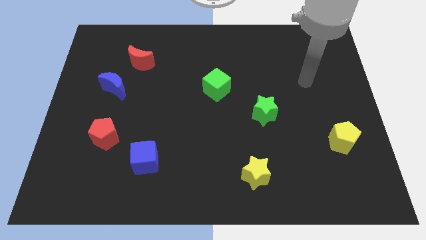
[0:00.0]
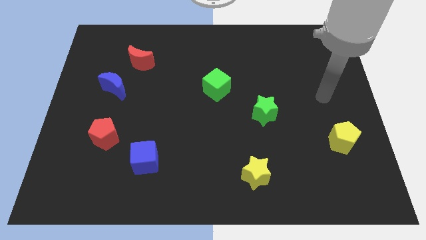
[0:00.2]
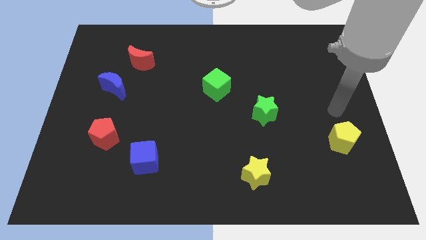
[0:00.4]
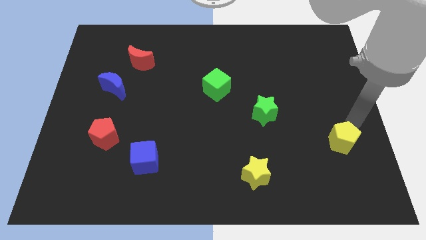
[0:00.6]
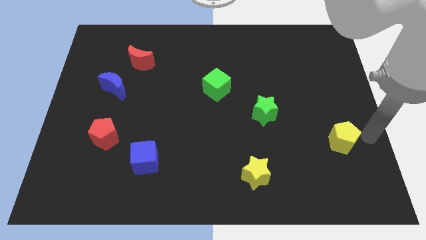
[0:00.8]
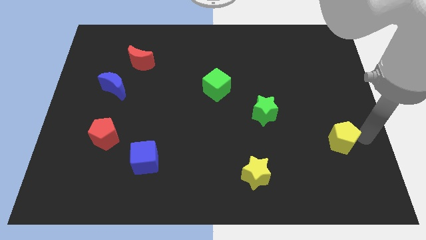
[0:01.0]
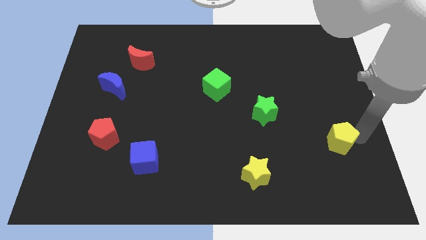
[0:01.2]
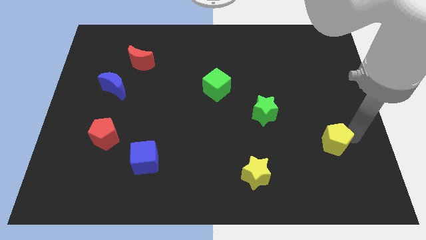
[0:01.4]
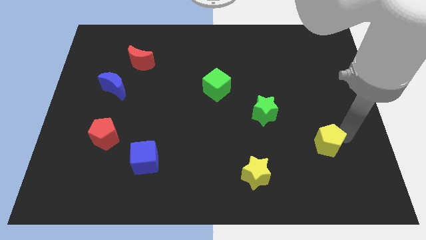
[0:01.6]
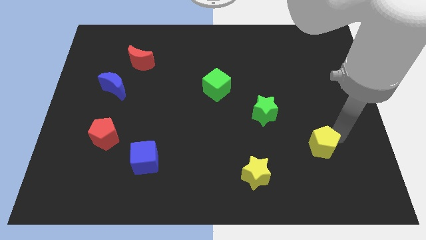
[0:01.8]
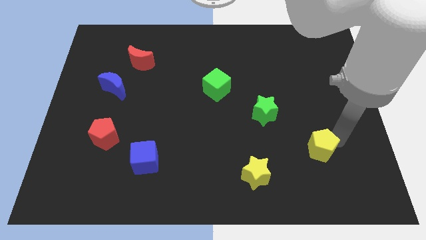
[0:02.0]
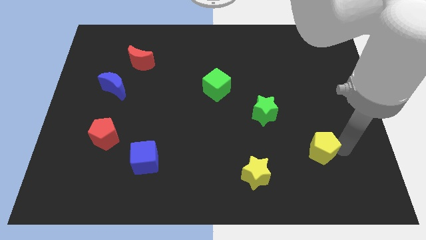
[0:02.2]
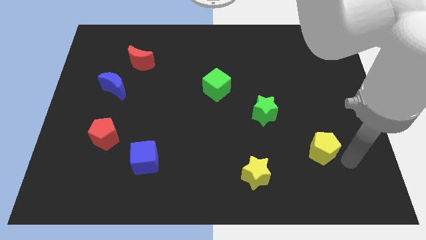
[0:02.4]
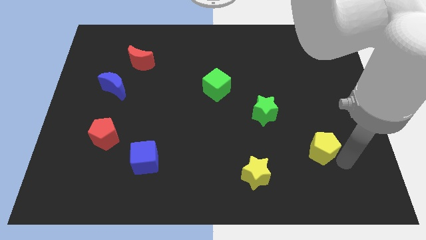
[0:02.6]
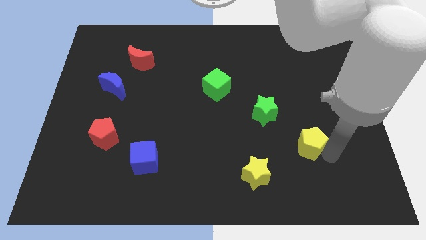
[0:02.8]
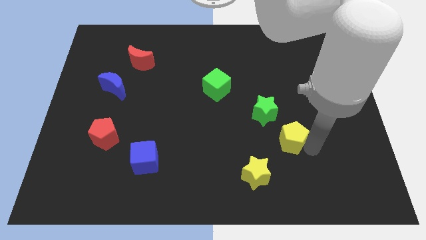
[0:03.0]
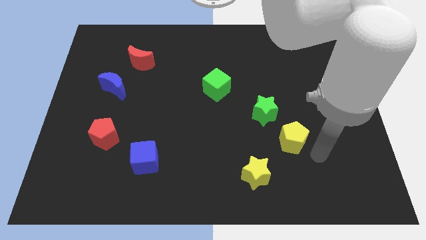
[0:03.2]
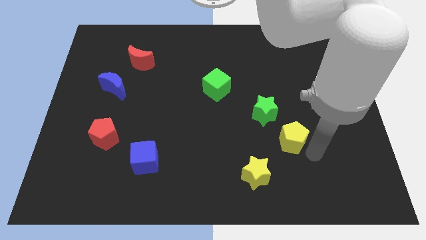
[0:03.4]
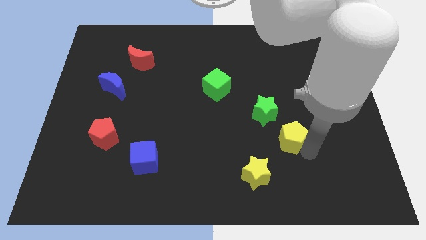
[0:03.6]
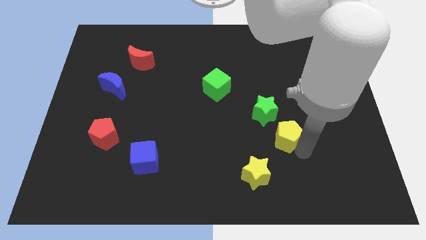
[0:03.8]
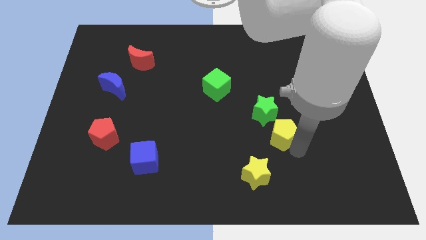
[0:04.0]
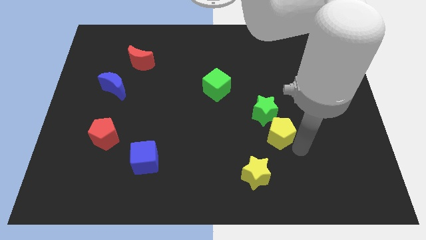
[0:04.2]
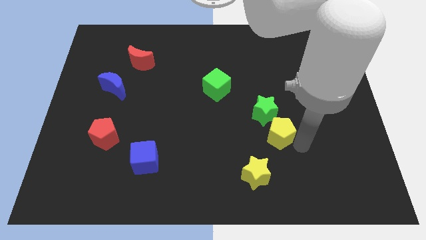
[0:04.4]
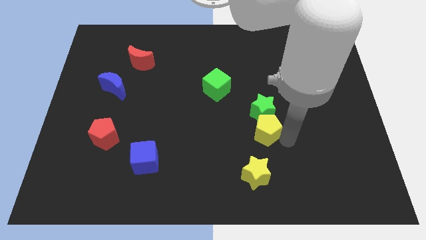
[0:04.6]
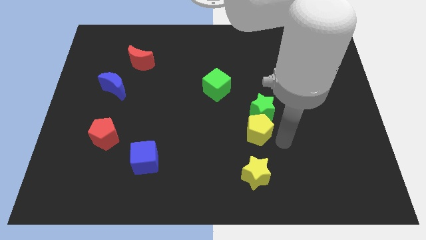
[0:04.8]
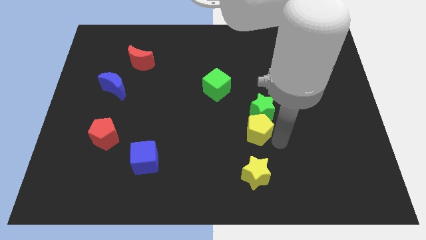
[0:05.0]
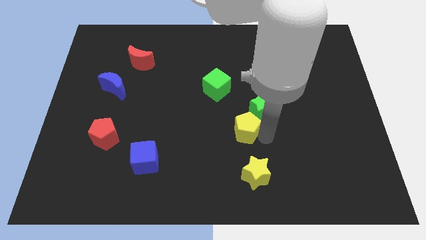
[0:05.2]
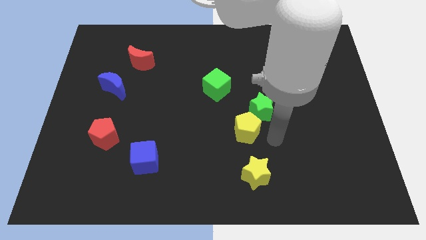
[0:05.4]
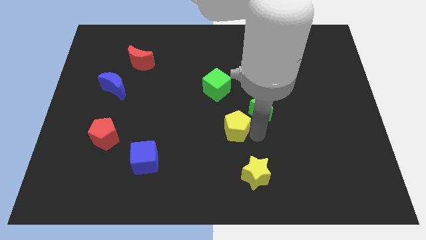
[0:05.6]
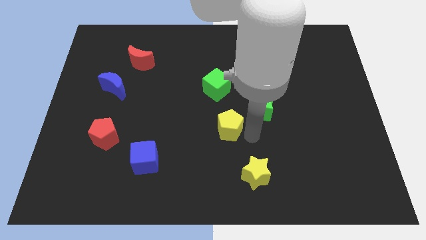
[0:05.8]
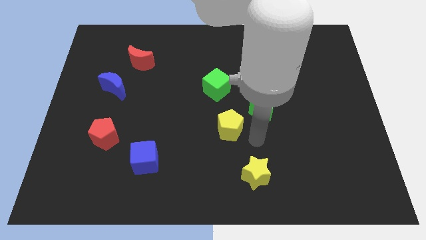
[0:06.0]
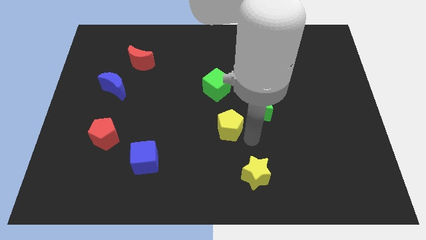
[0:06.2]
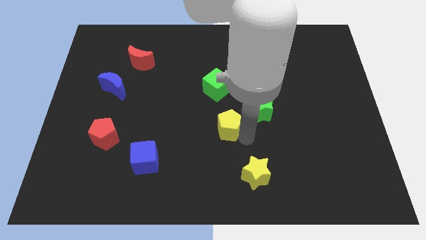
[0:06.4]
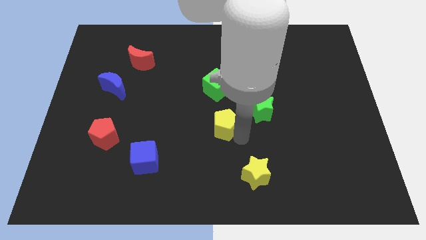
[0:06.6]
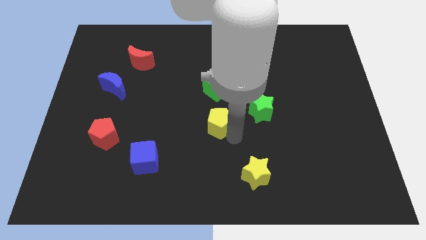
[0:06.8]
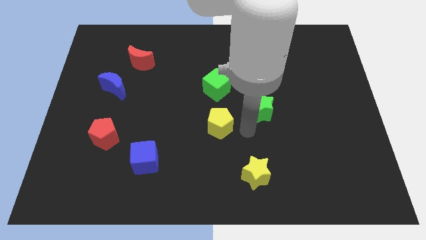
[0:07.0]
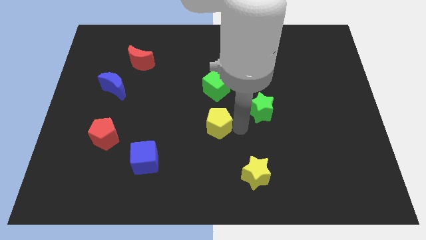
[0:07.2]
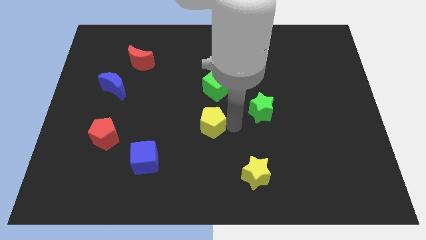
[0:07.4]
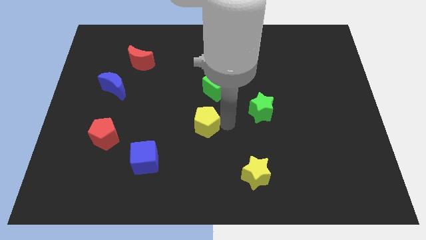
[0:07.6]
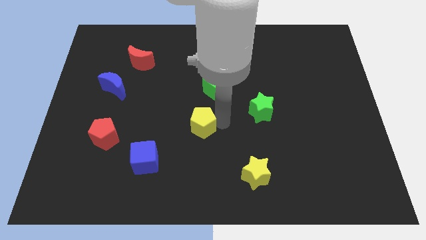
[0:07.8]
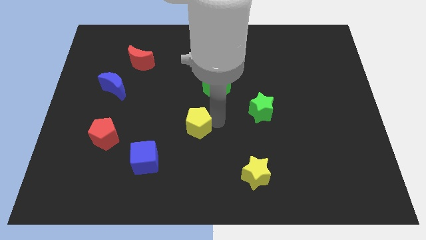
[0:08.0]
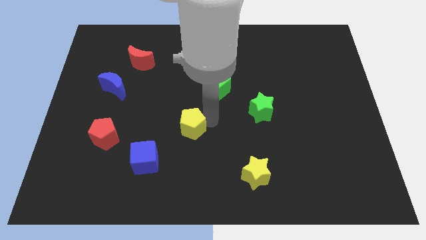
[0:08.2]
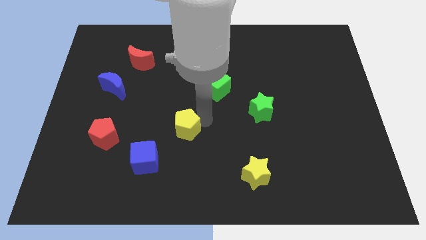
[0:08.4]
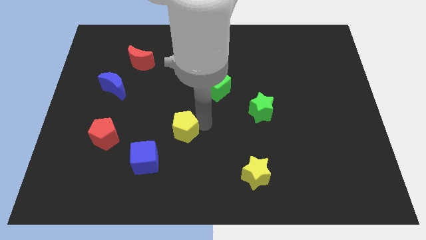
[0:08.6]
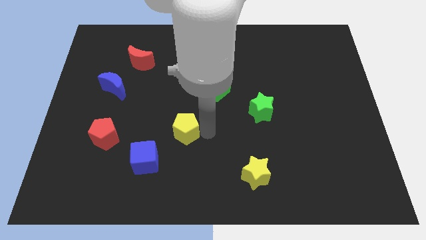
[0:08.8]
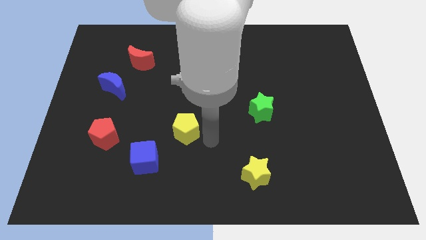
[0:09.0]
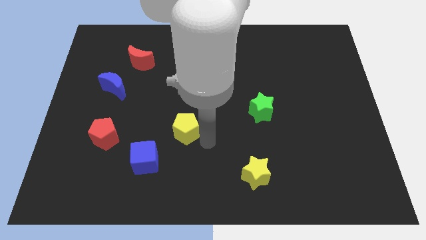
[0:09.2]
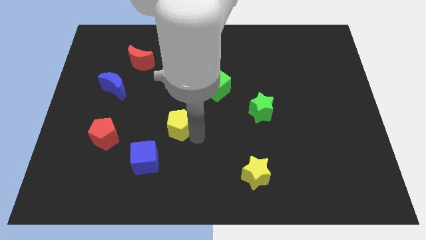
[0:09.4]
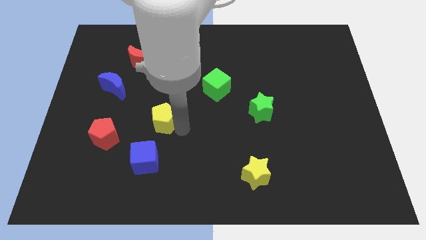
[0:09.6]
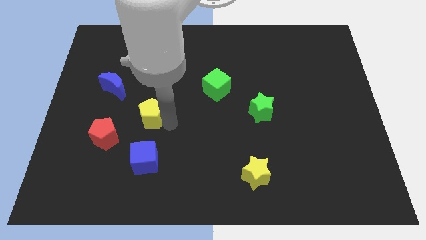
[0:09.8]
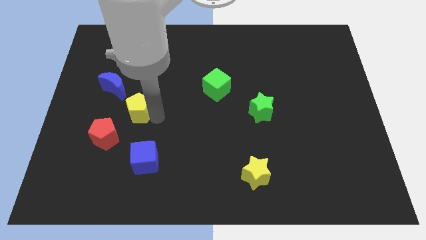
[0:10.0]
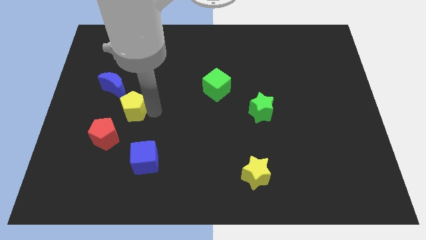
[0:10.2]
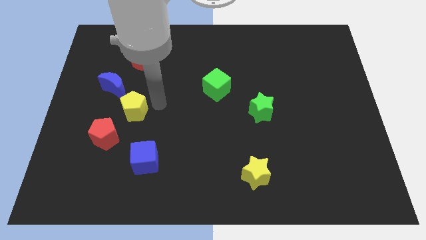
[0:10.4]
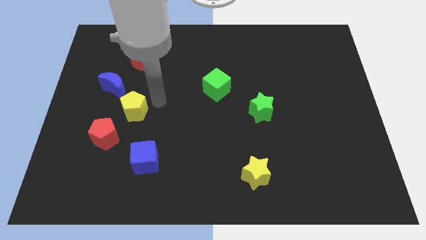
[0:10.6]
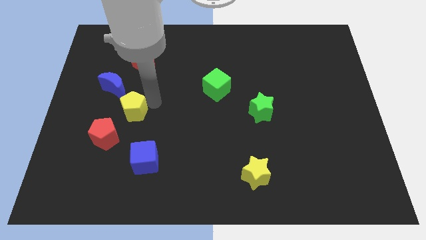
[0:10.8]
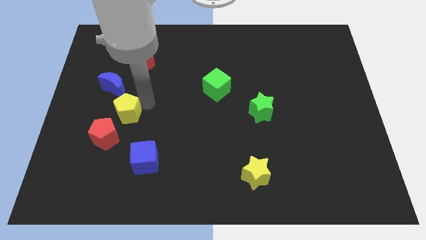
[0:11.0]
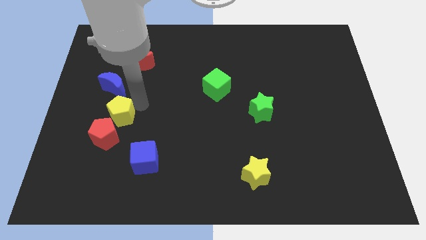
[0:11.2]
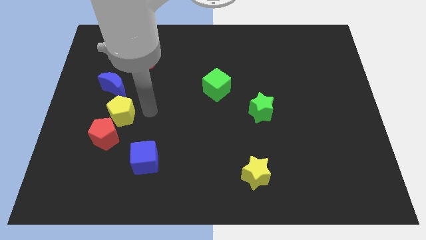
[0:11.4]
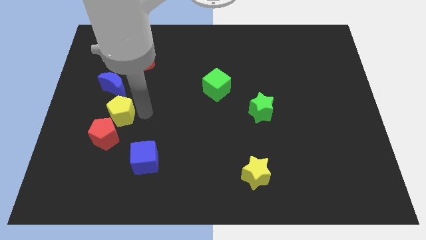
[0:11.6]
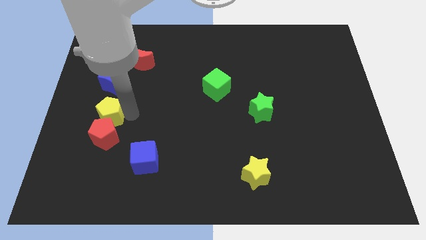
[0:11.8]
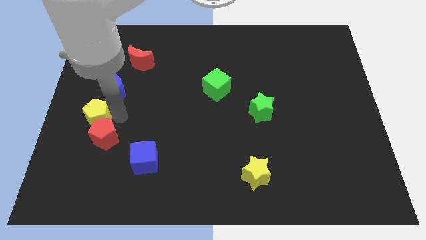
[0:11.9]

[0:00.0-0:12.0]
push the yellow pentagon to the center left
